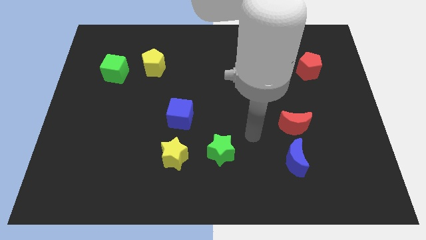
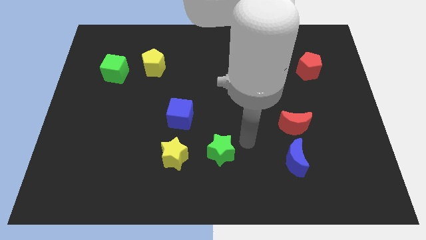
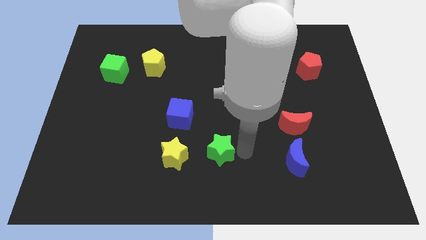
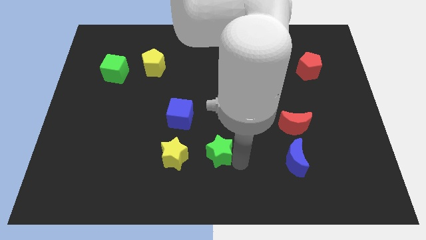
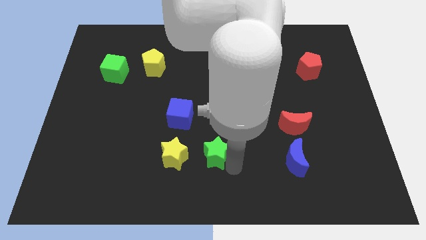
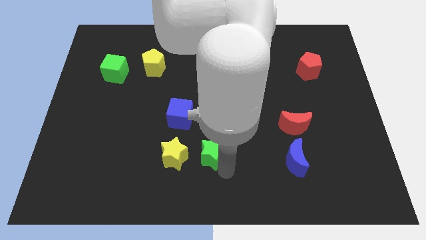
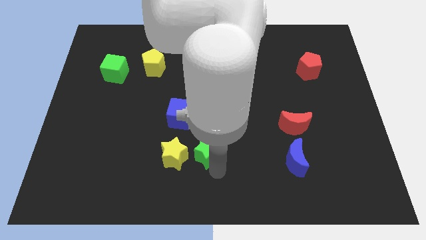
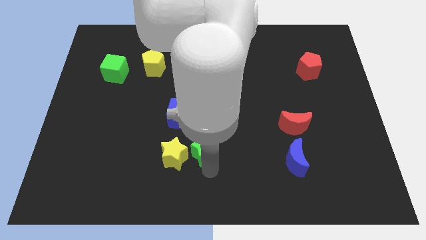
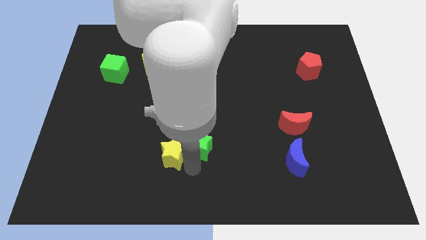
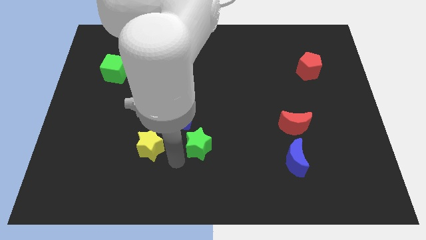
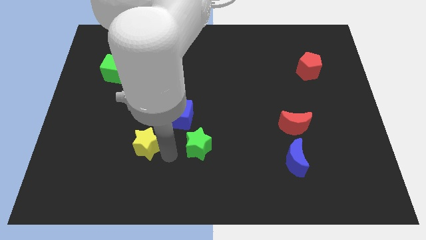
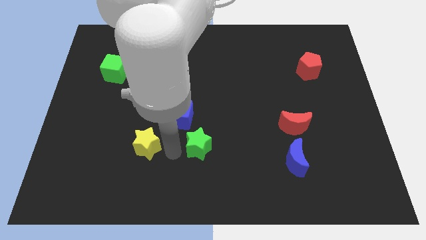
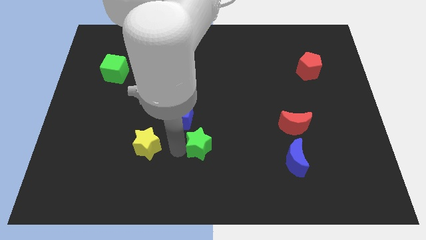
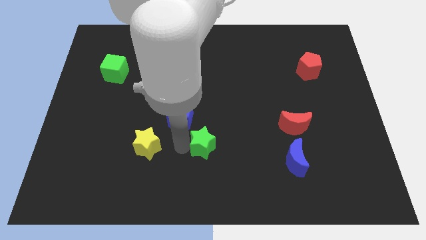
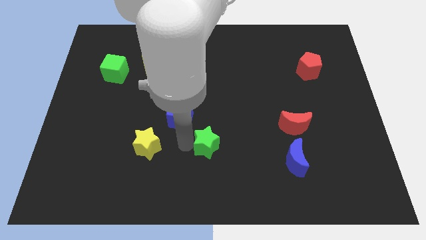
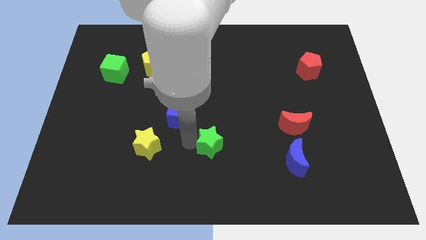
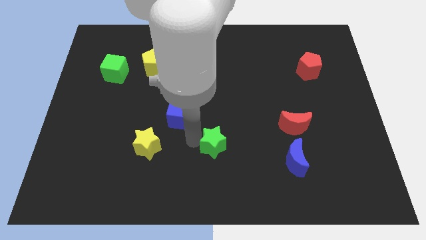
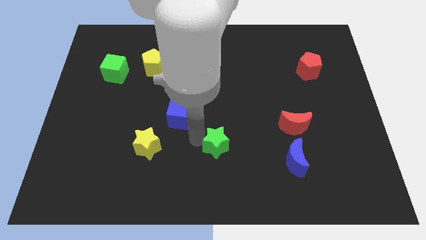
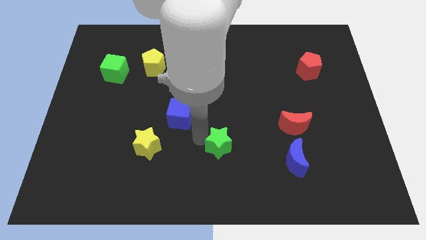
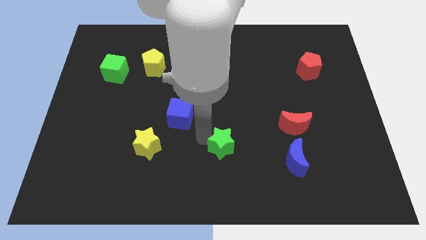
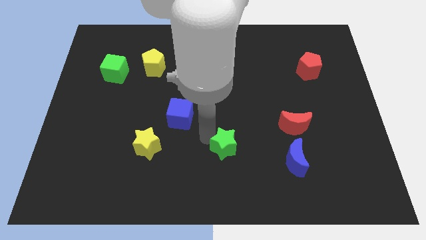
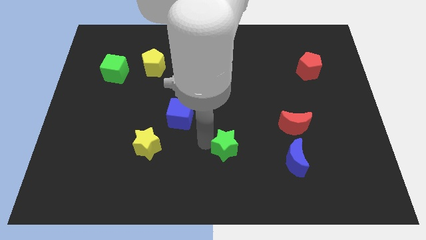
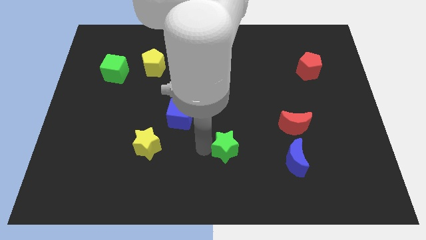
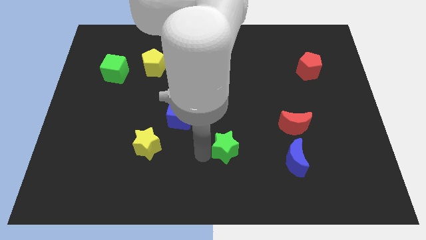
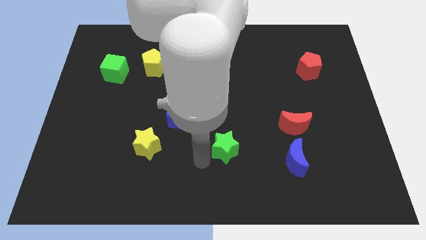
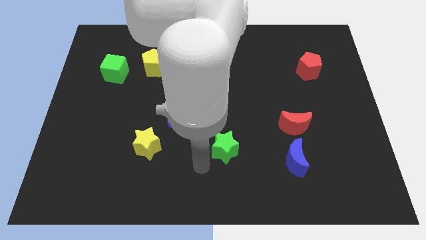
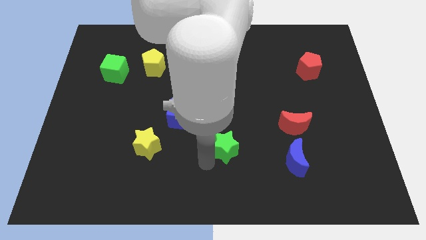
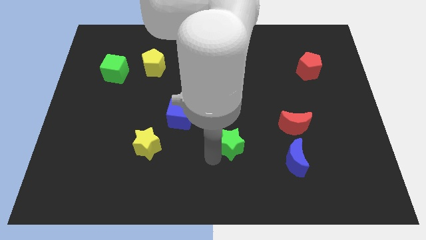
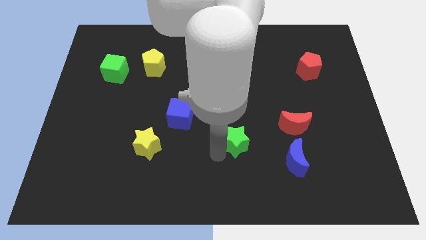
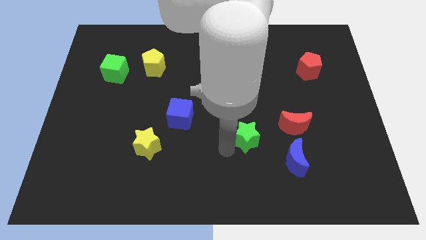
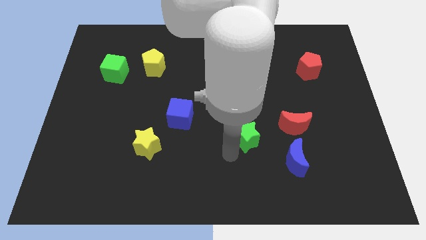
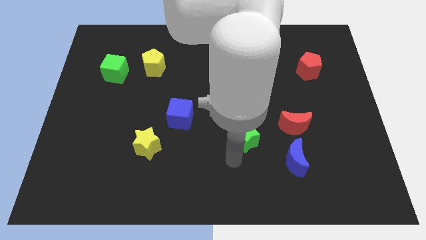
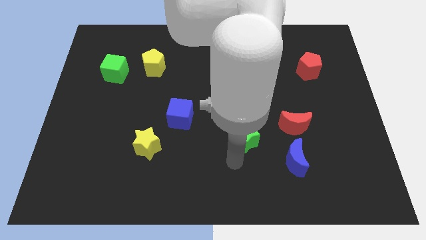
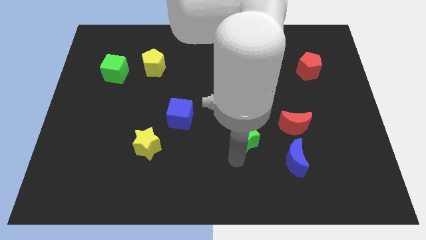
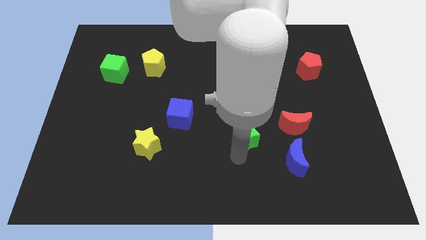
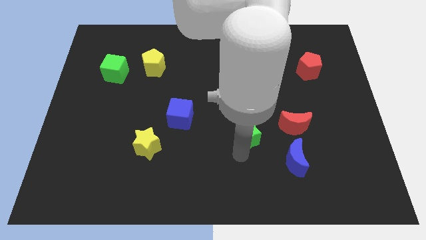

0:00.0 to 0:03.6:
push the green star up and right diagonally a little

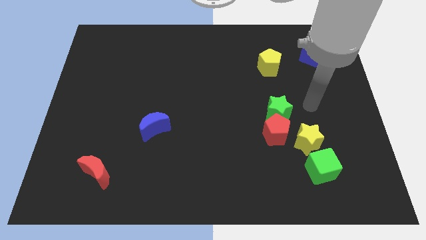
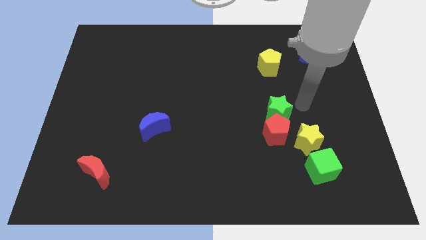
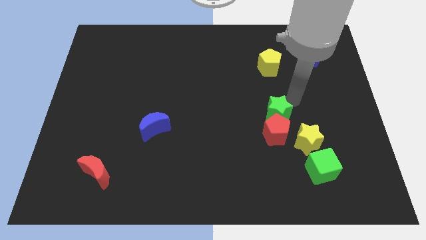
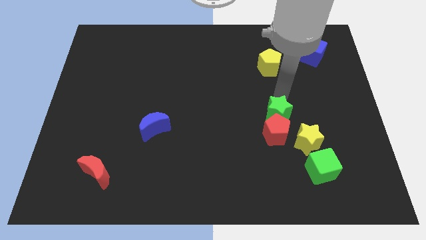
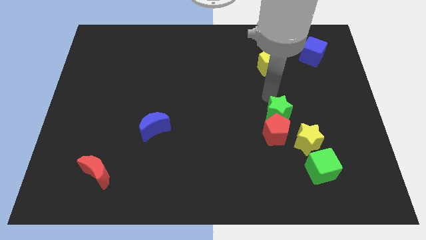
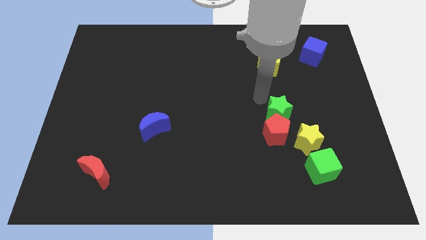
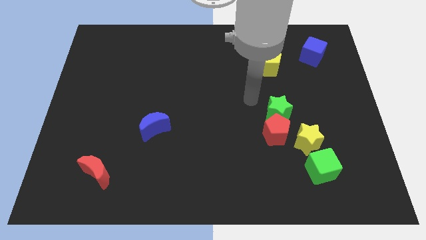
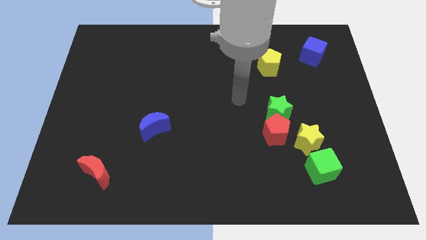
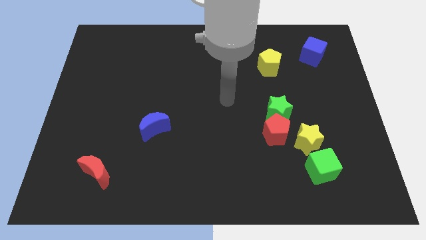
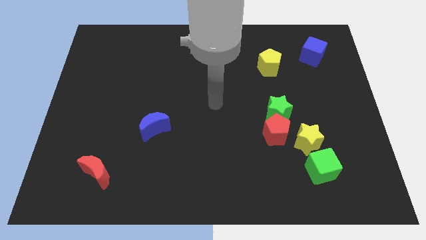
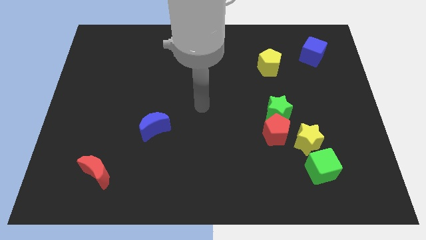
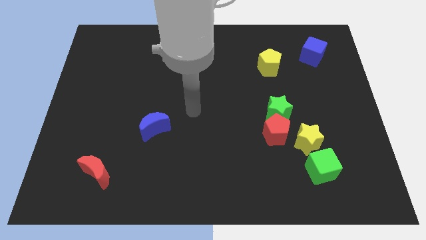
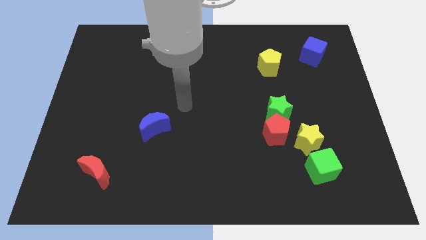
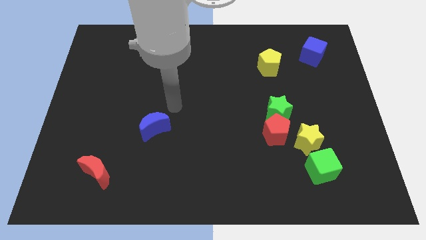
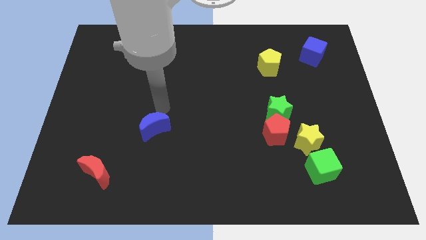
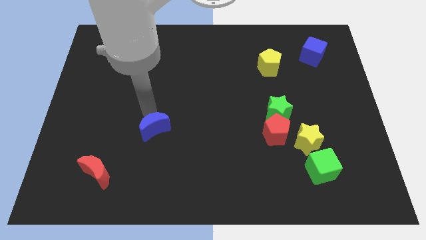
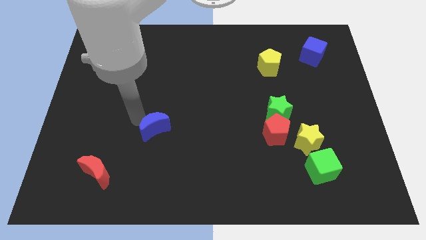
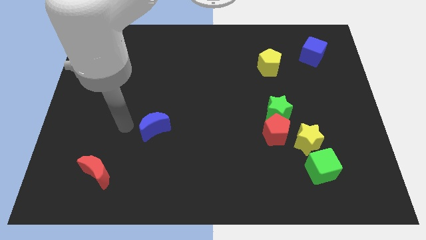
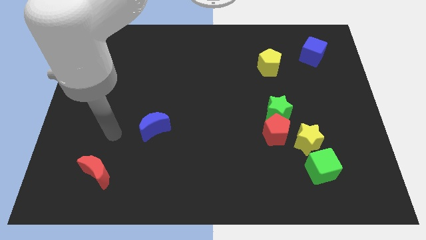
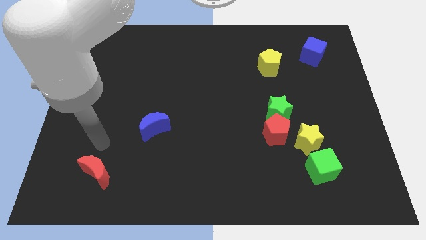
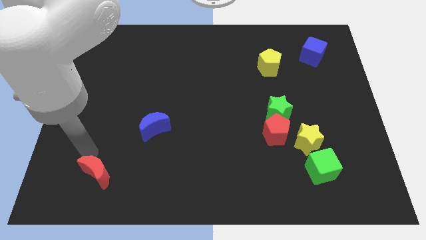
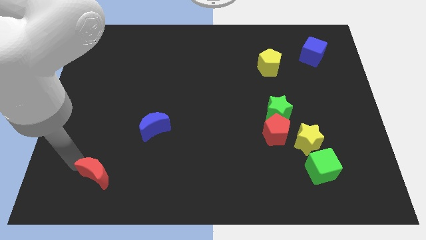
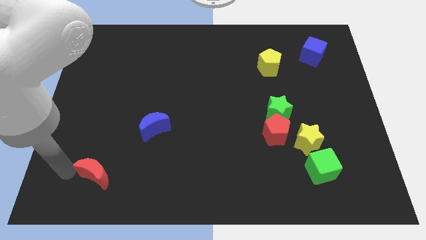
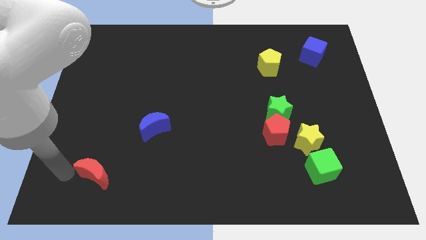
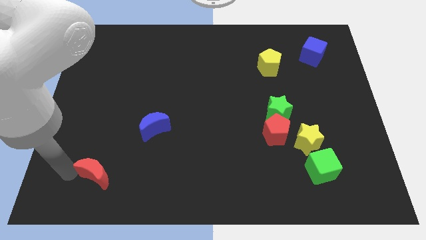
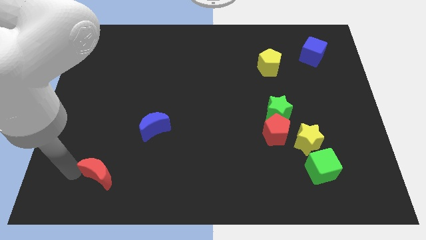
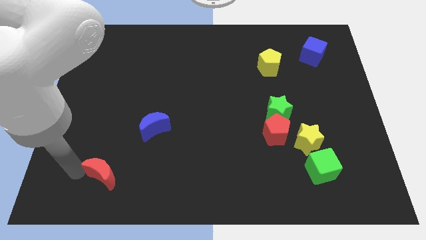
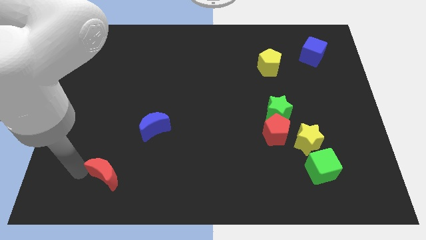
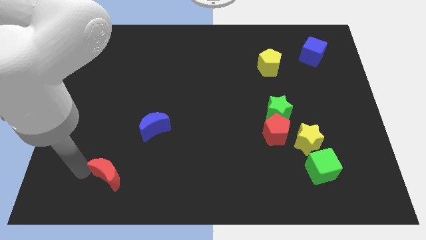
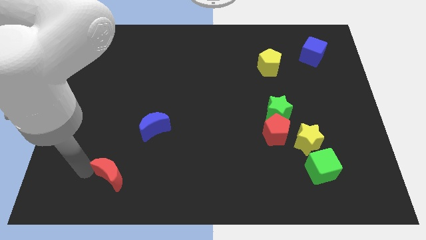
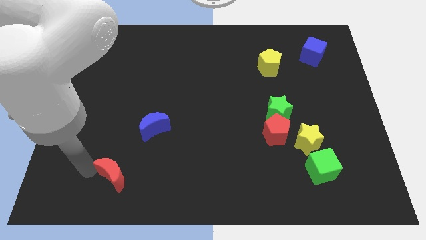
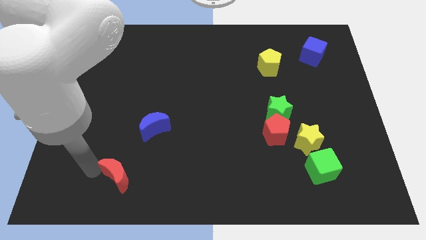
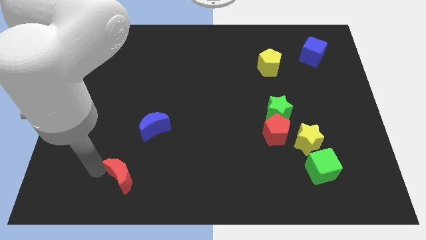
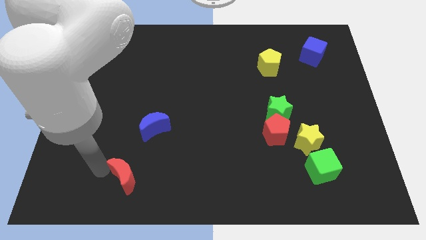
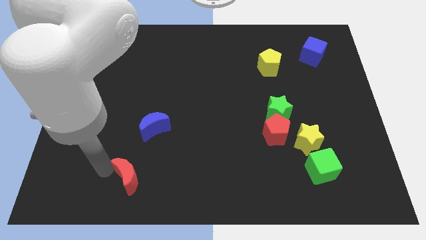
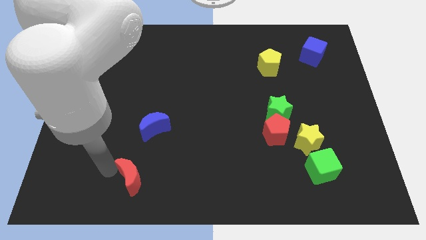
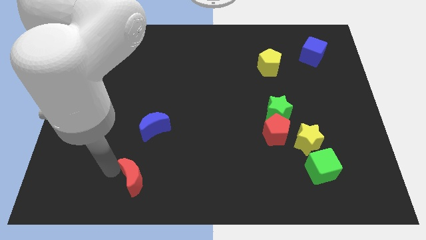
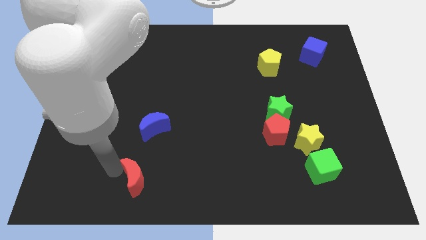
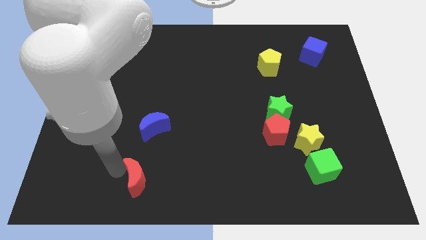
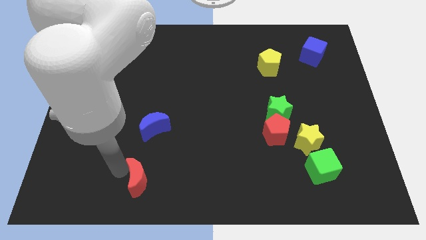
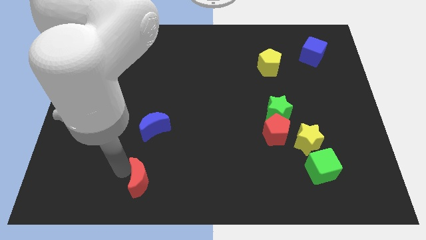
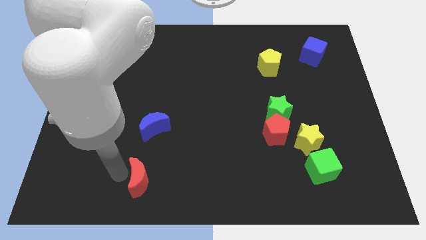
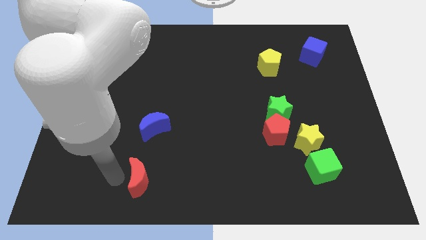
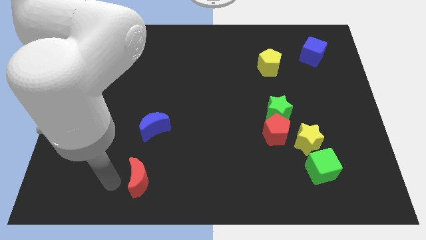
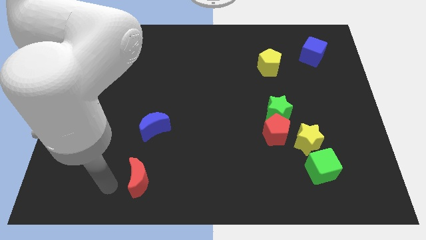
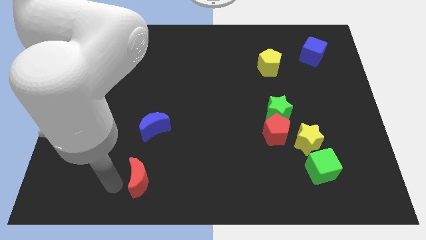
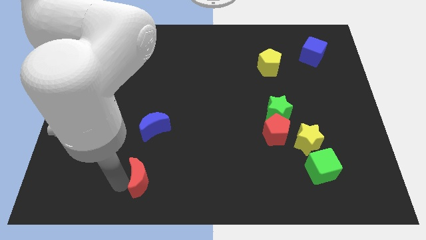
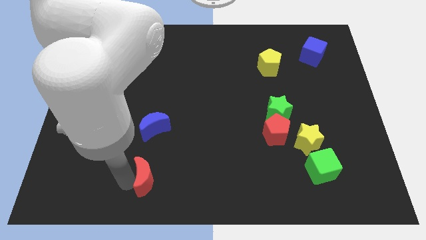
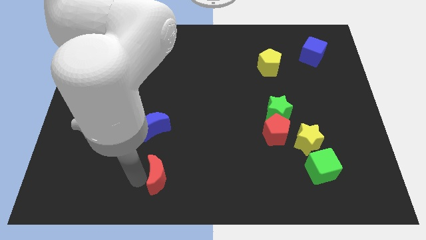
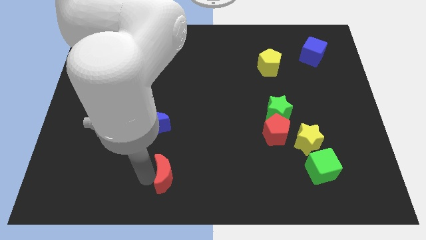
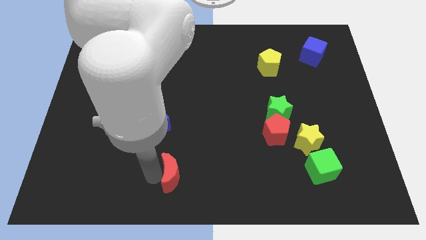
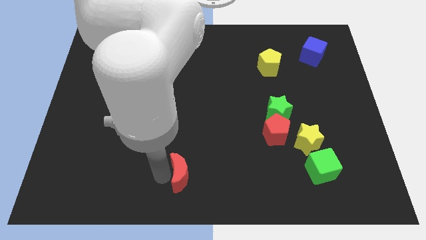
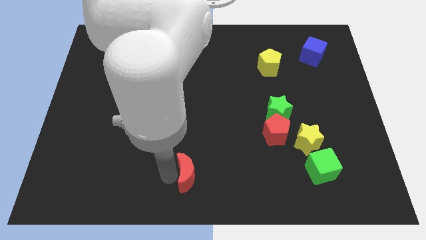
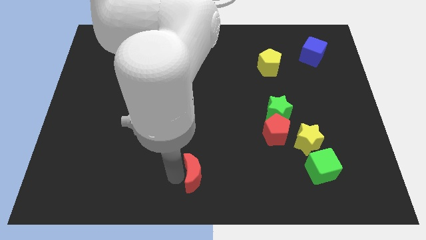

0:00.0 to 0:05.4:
slide the red moon to the right
